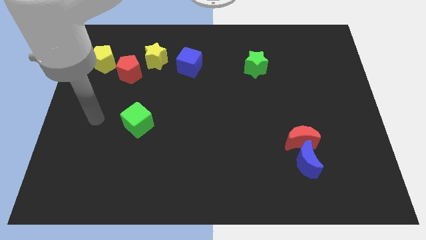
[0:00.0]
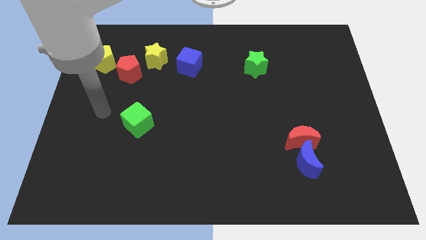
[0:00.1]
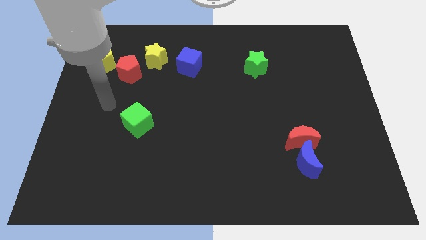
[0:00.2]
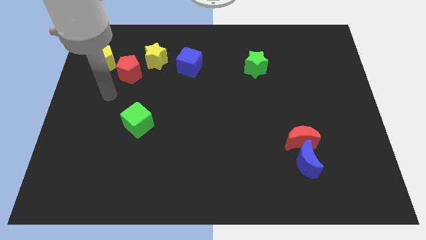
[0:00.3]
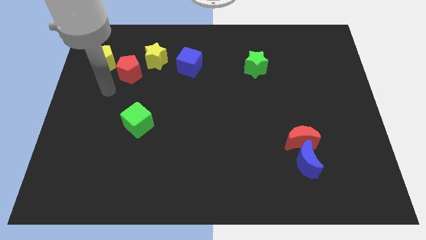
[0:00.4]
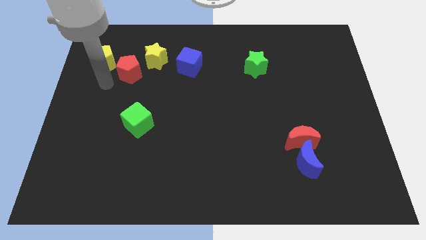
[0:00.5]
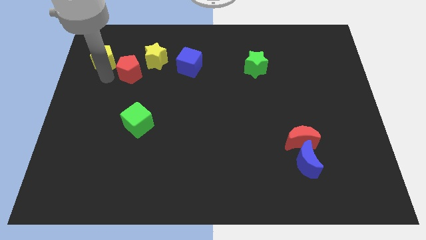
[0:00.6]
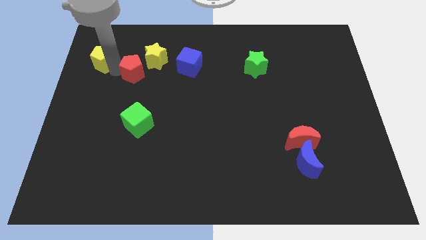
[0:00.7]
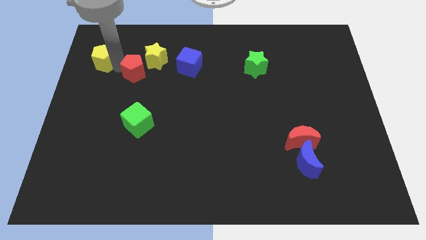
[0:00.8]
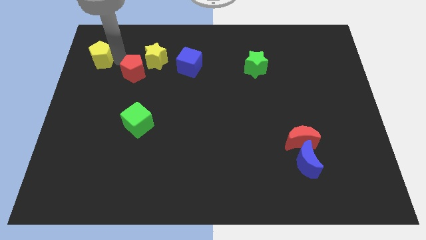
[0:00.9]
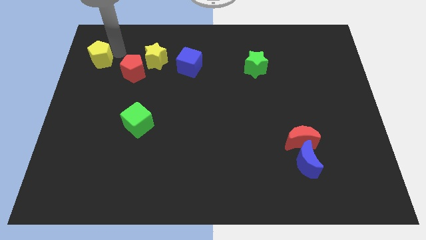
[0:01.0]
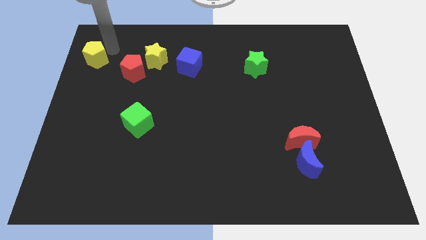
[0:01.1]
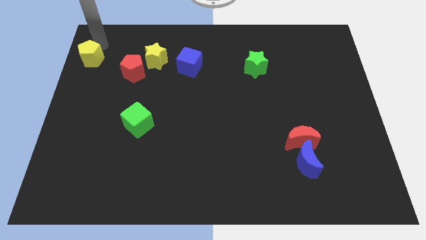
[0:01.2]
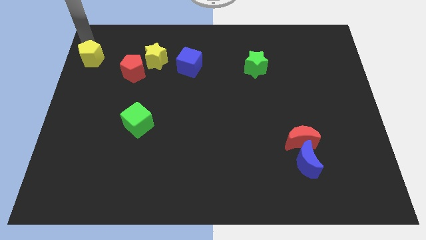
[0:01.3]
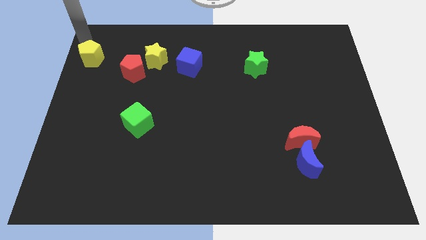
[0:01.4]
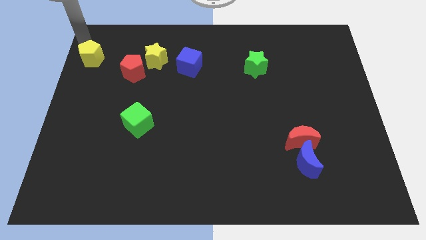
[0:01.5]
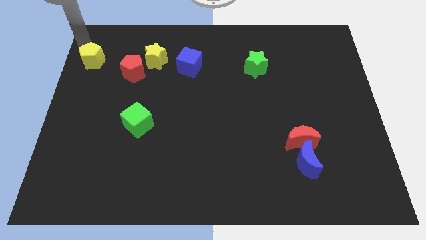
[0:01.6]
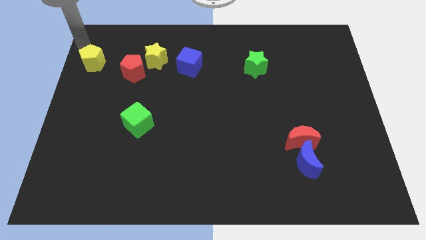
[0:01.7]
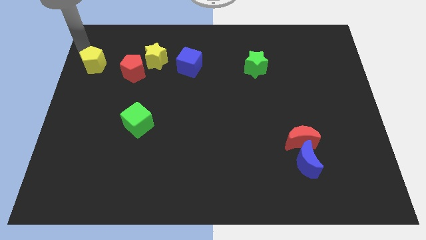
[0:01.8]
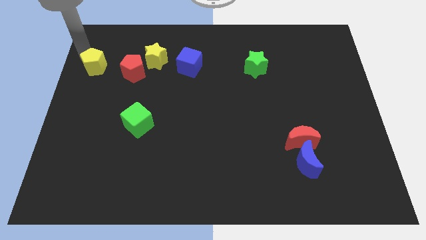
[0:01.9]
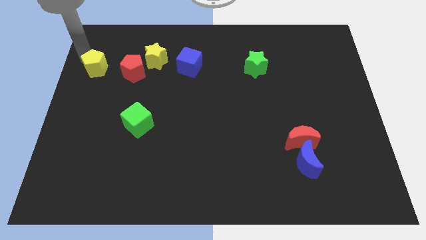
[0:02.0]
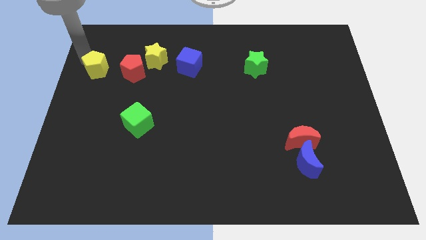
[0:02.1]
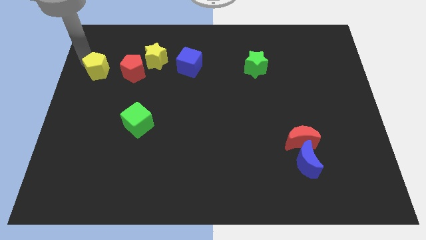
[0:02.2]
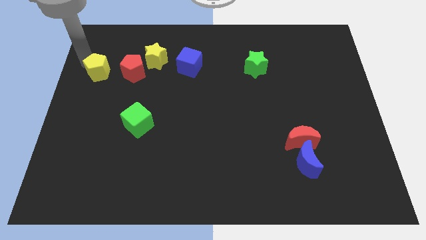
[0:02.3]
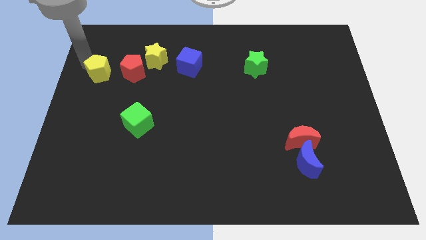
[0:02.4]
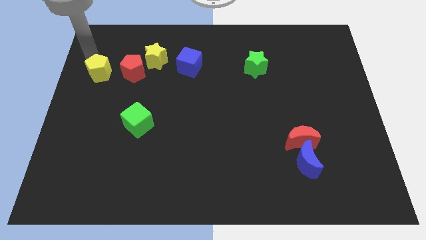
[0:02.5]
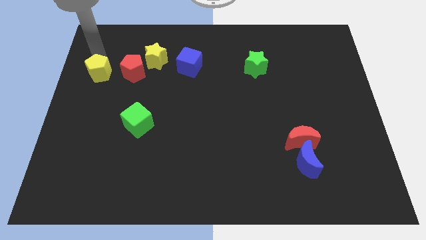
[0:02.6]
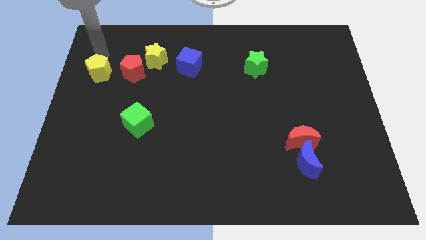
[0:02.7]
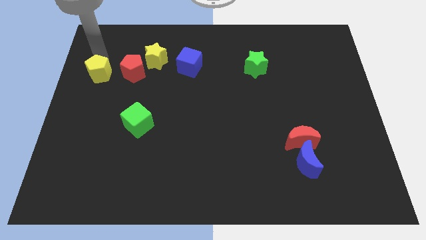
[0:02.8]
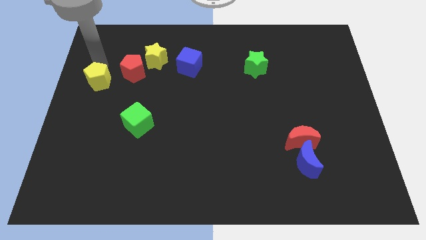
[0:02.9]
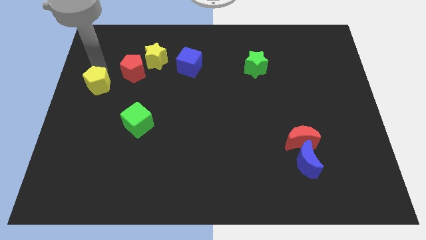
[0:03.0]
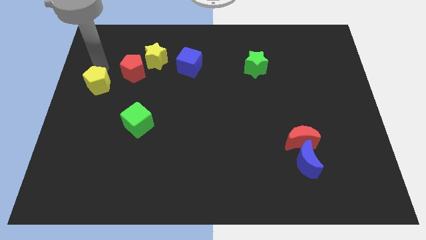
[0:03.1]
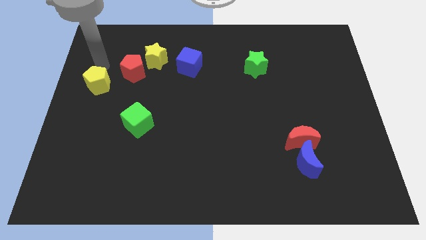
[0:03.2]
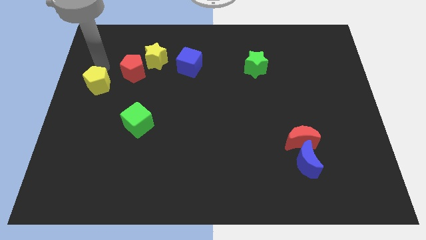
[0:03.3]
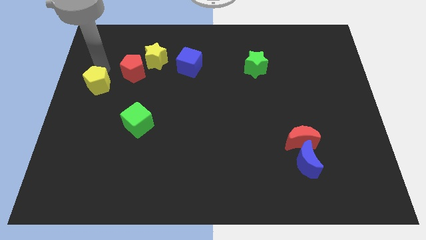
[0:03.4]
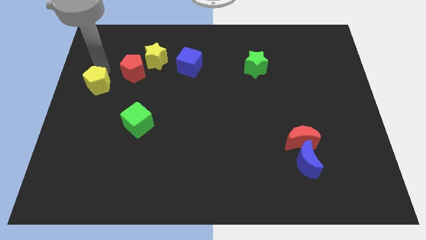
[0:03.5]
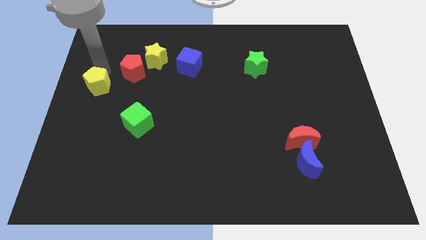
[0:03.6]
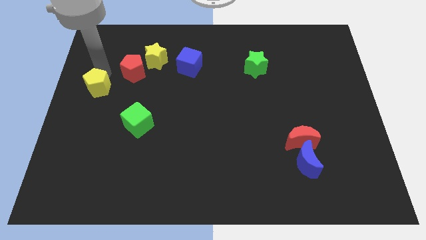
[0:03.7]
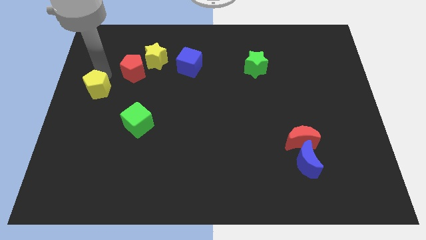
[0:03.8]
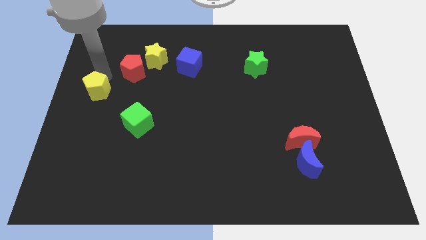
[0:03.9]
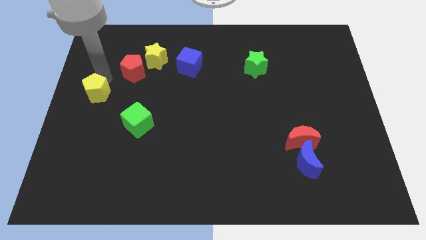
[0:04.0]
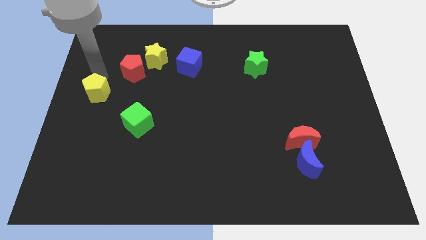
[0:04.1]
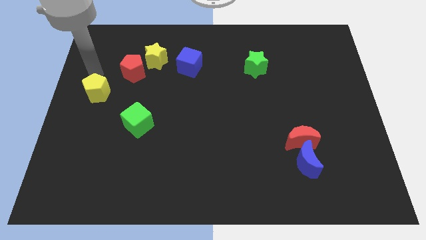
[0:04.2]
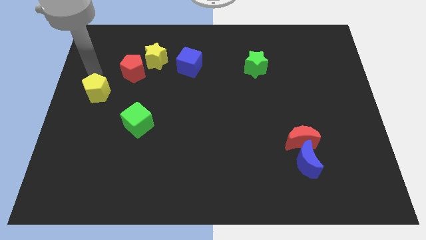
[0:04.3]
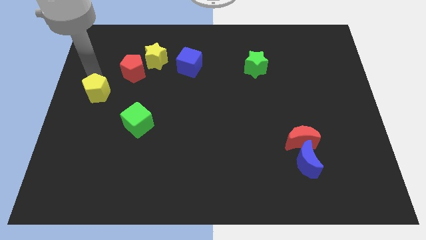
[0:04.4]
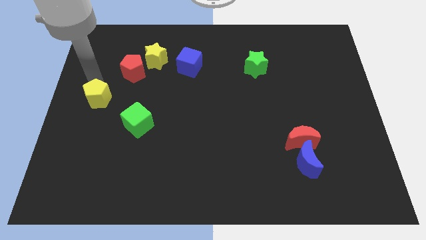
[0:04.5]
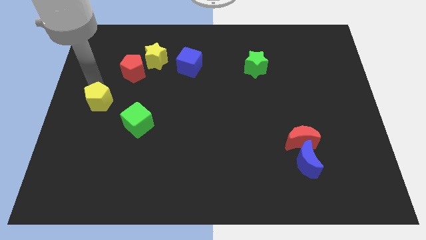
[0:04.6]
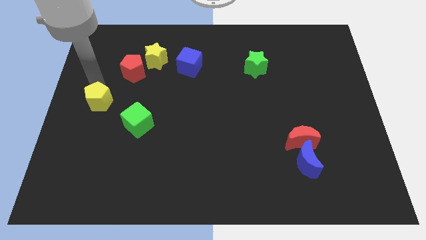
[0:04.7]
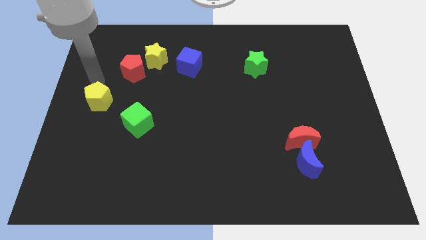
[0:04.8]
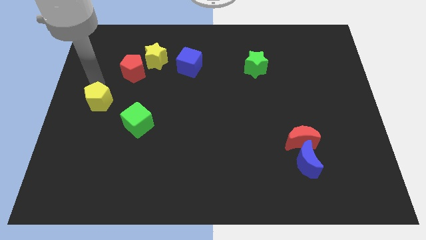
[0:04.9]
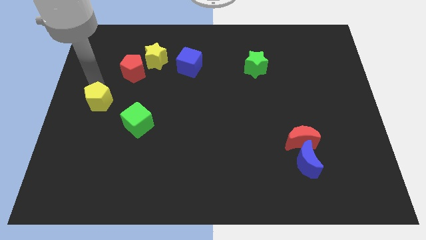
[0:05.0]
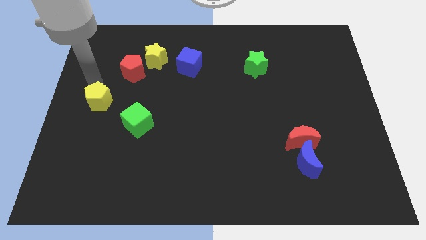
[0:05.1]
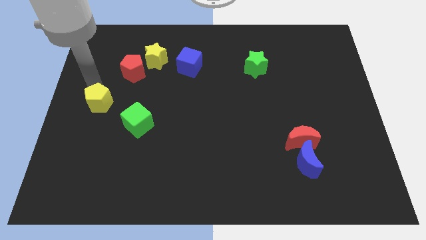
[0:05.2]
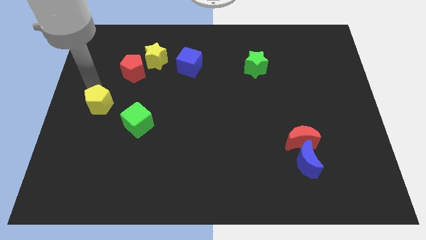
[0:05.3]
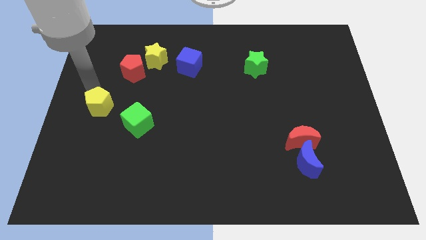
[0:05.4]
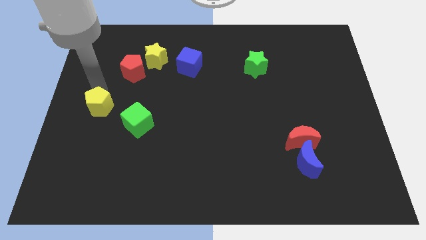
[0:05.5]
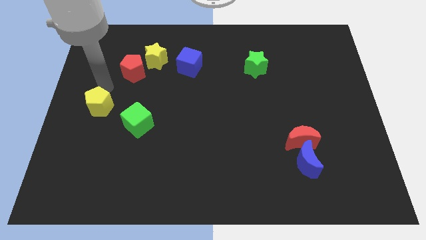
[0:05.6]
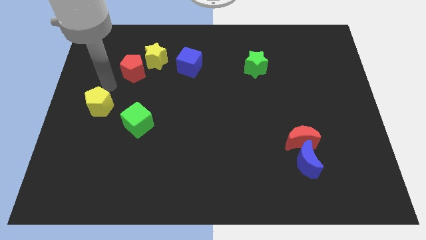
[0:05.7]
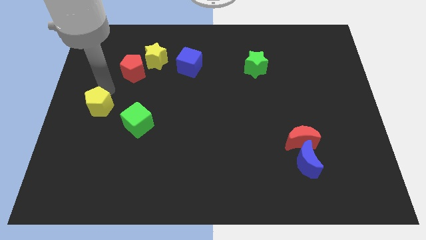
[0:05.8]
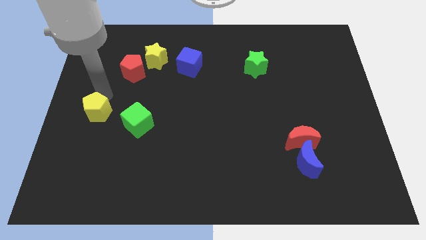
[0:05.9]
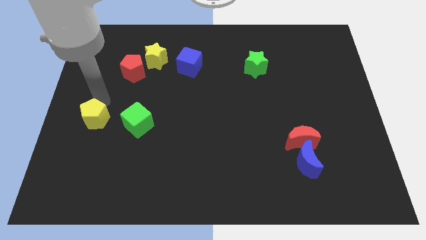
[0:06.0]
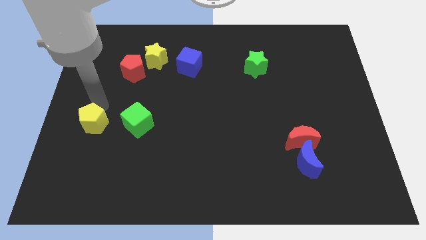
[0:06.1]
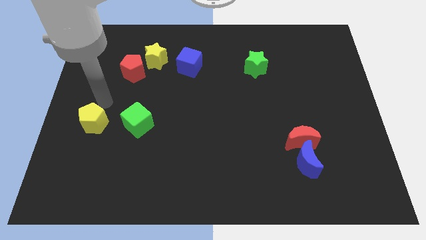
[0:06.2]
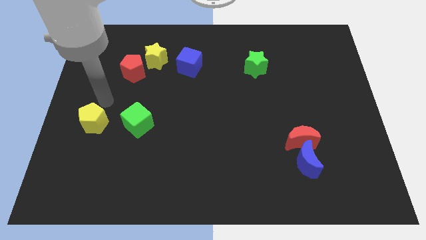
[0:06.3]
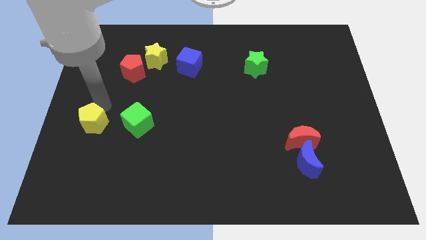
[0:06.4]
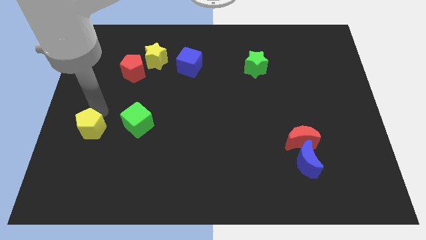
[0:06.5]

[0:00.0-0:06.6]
move the yellow pentagon down

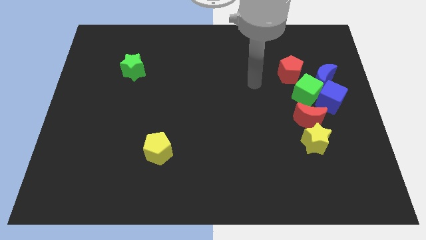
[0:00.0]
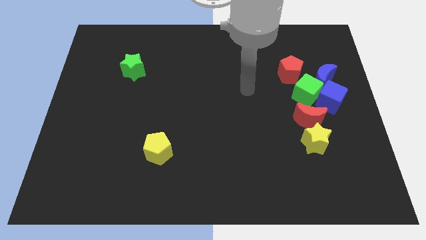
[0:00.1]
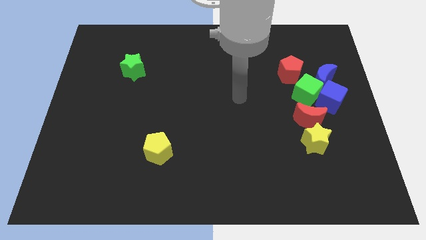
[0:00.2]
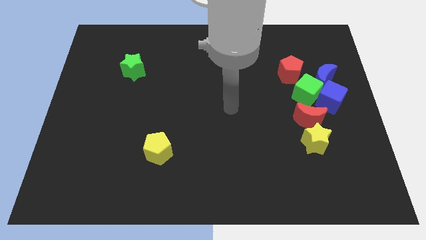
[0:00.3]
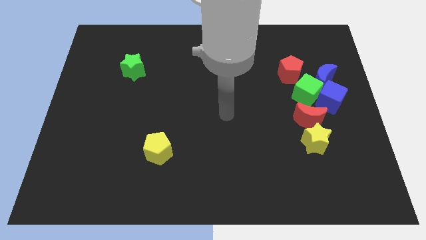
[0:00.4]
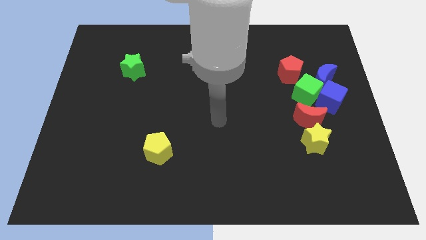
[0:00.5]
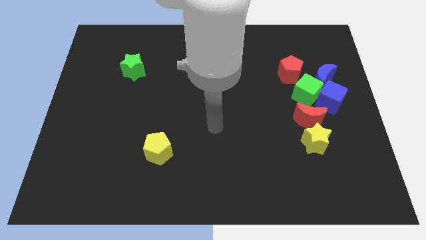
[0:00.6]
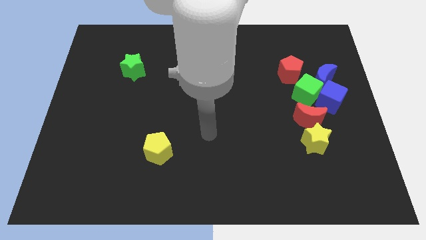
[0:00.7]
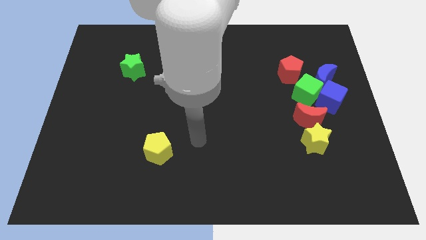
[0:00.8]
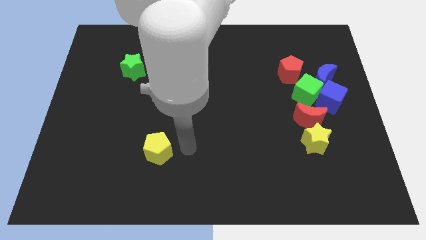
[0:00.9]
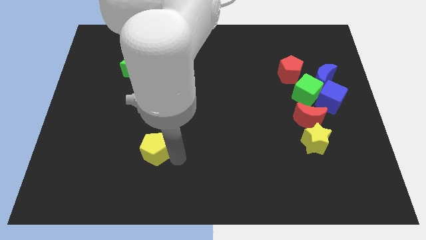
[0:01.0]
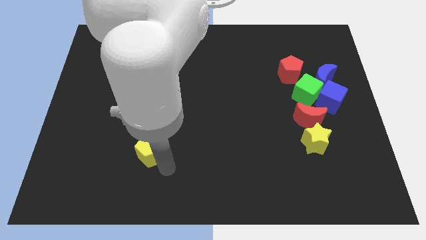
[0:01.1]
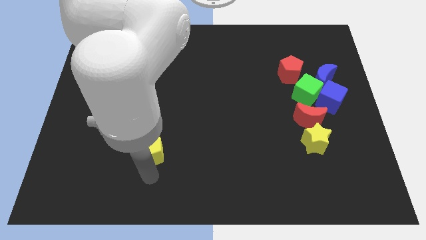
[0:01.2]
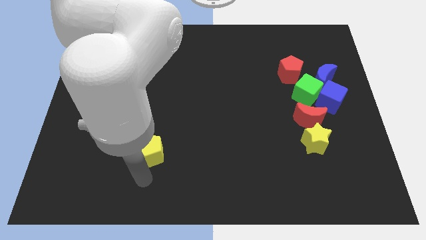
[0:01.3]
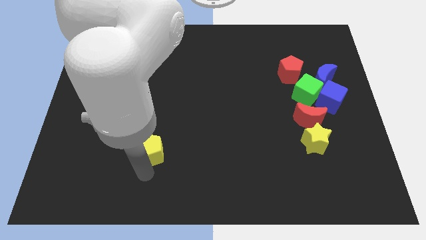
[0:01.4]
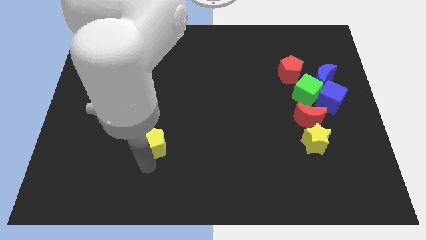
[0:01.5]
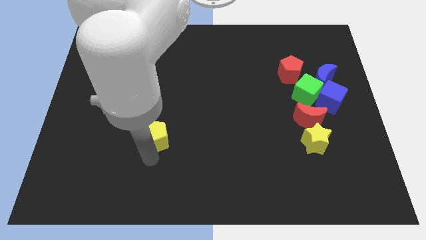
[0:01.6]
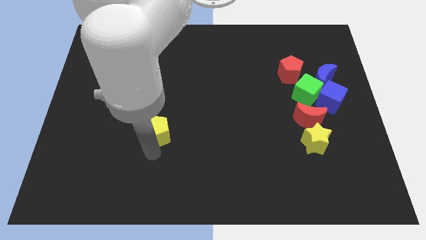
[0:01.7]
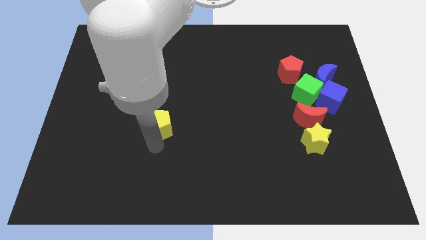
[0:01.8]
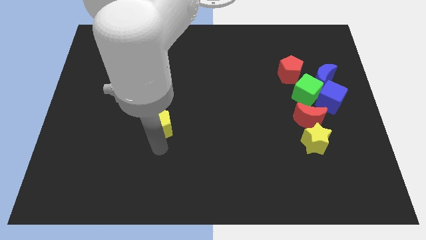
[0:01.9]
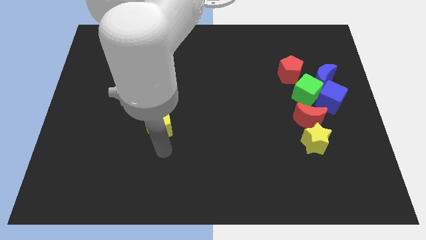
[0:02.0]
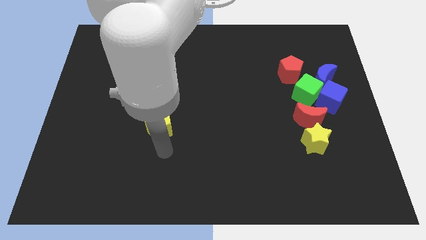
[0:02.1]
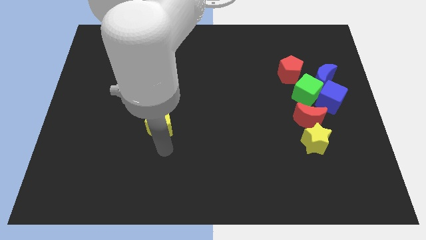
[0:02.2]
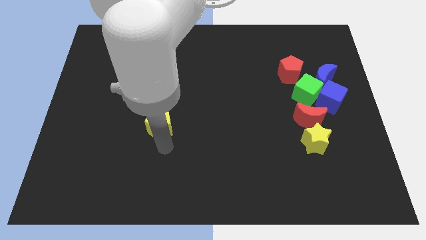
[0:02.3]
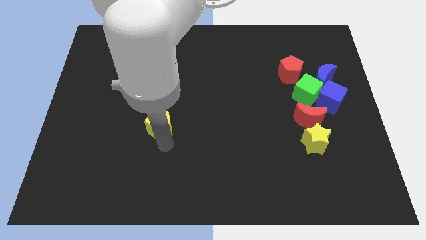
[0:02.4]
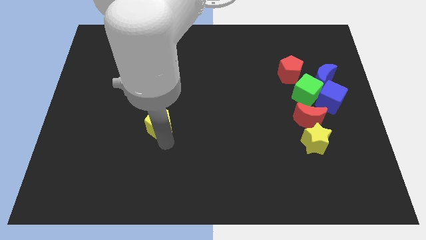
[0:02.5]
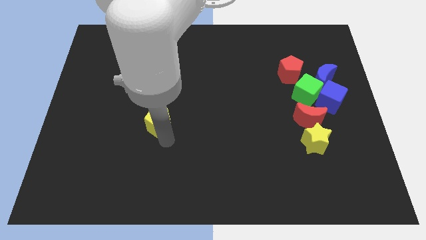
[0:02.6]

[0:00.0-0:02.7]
move the yellow pentagon up somewhat
